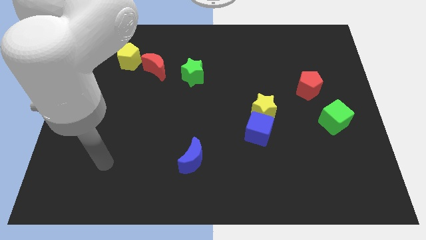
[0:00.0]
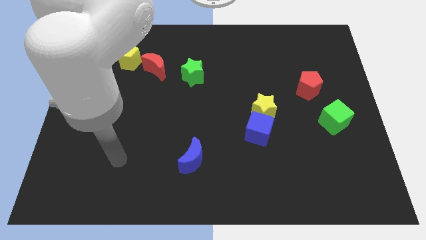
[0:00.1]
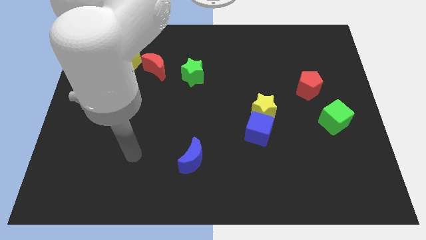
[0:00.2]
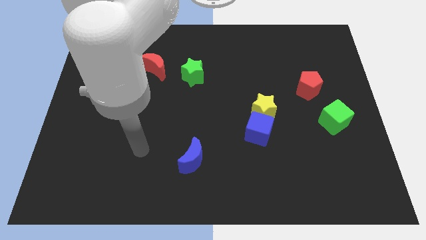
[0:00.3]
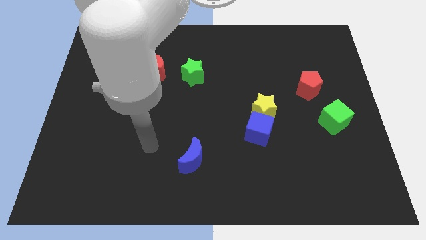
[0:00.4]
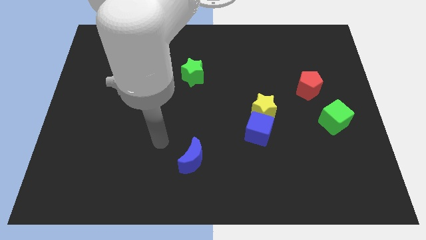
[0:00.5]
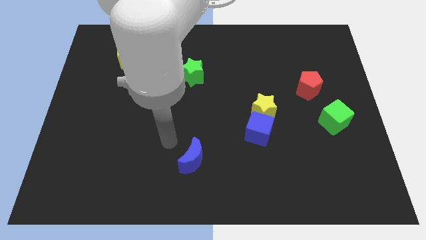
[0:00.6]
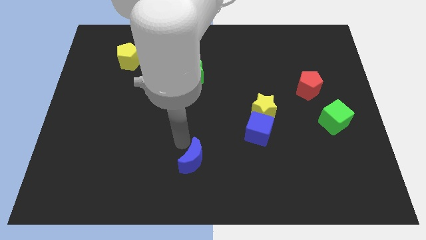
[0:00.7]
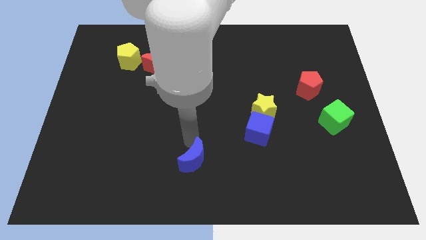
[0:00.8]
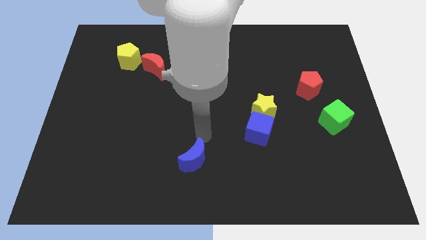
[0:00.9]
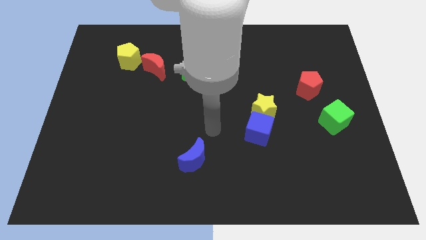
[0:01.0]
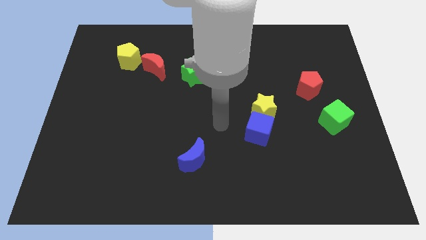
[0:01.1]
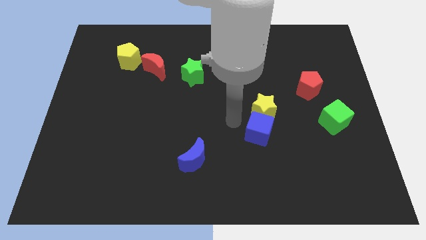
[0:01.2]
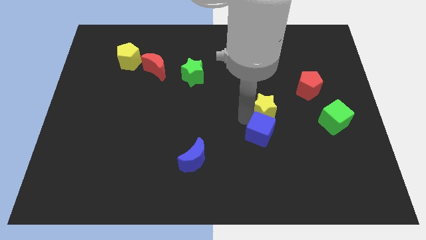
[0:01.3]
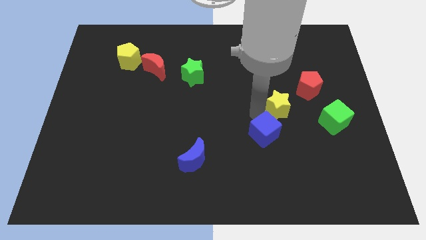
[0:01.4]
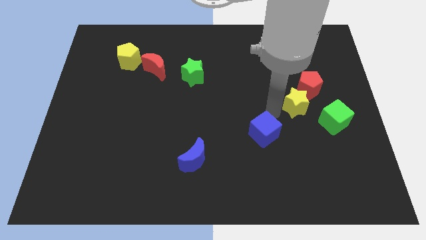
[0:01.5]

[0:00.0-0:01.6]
separate the blue cube from the yellow star

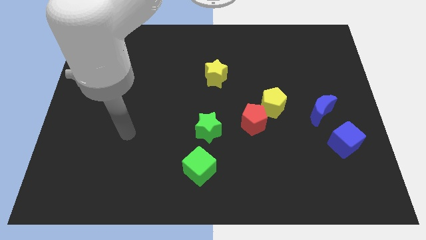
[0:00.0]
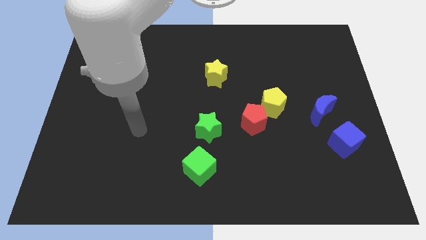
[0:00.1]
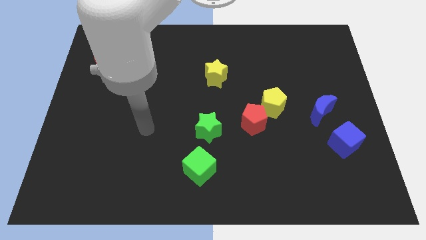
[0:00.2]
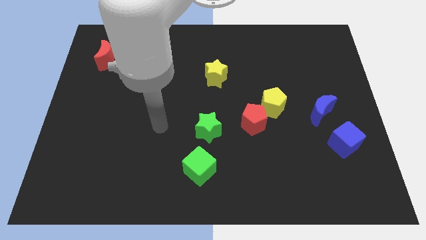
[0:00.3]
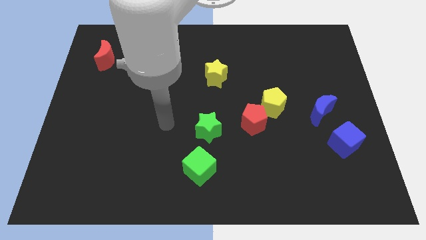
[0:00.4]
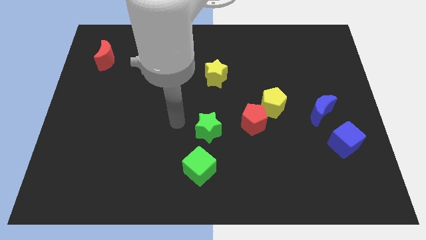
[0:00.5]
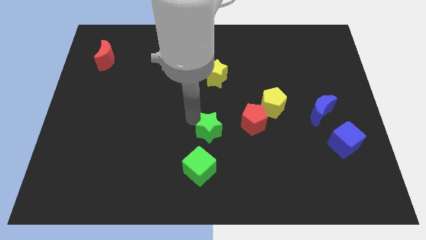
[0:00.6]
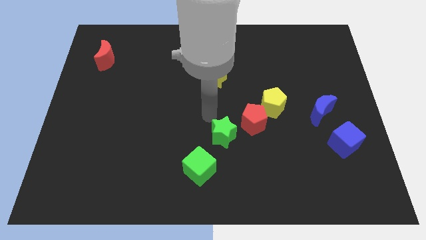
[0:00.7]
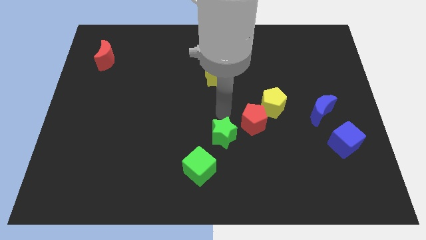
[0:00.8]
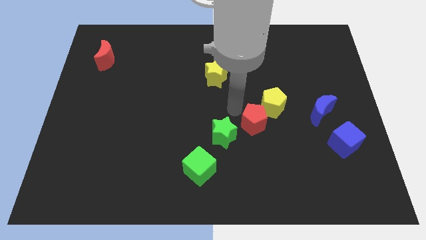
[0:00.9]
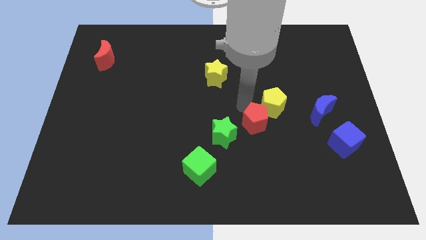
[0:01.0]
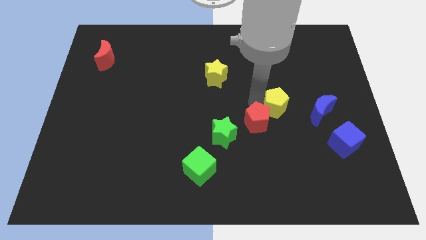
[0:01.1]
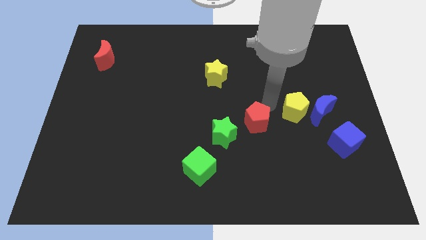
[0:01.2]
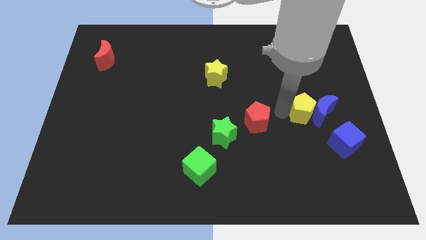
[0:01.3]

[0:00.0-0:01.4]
move the red pentagon away from the yellow pentagon

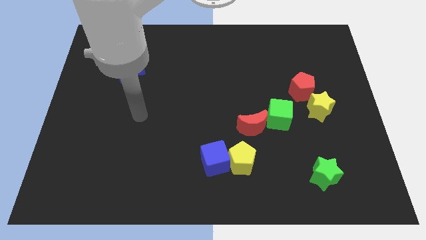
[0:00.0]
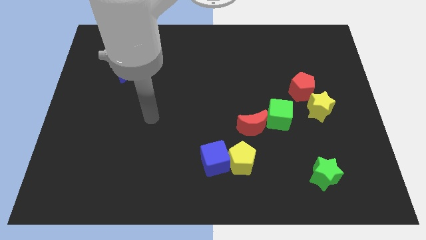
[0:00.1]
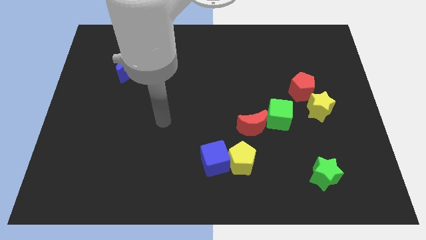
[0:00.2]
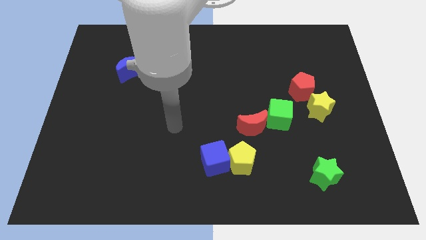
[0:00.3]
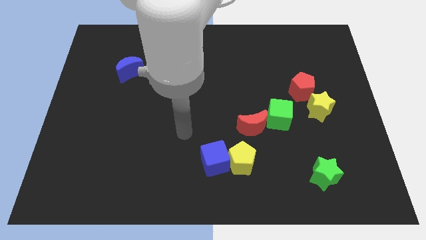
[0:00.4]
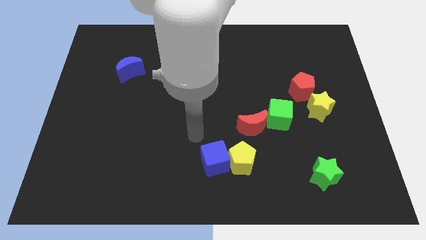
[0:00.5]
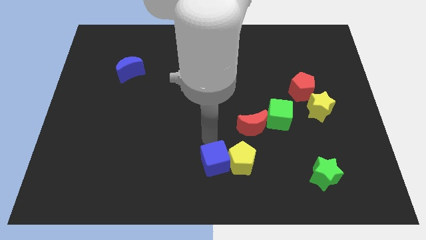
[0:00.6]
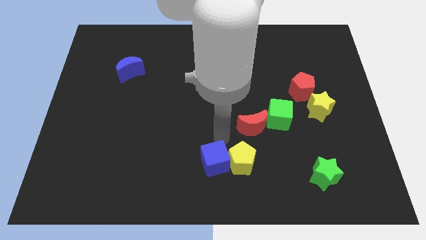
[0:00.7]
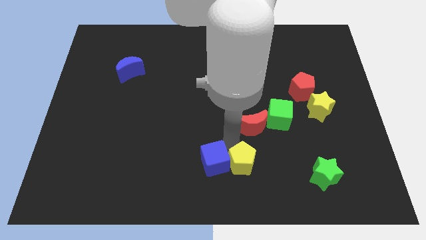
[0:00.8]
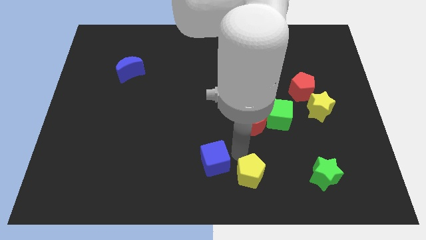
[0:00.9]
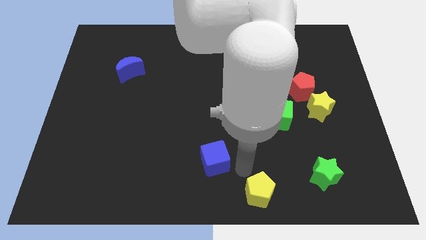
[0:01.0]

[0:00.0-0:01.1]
pull the blue cube apart from the yellow pentagon

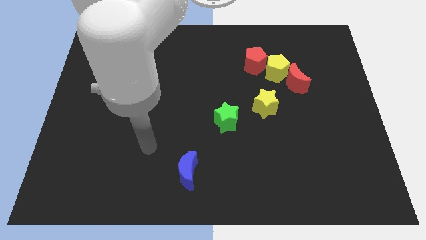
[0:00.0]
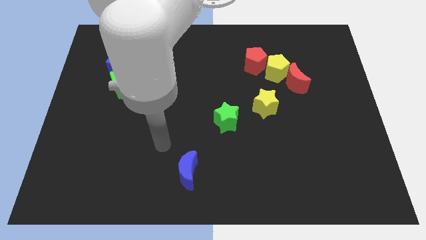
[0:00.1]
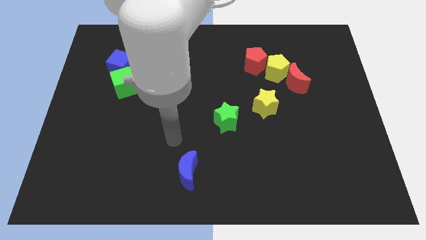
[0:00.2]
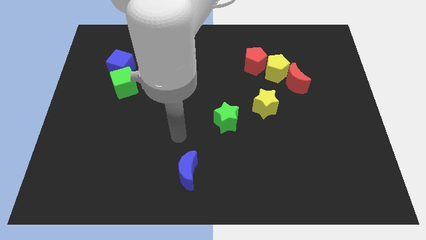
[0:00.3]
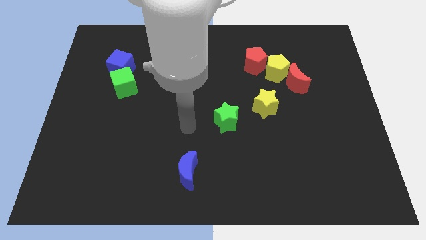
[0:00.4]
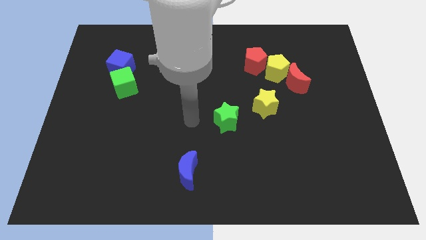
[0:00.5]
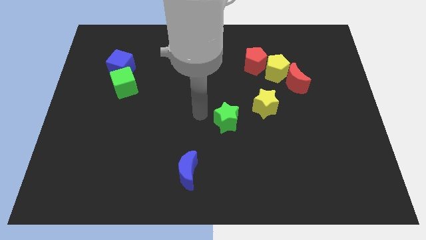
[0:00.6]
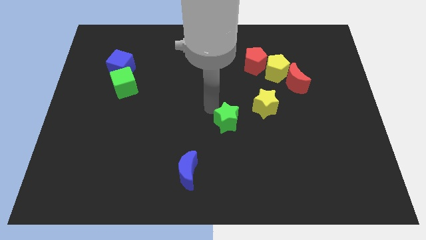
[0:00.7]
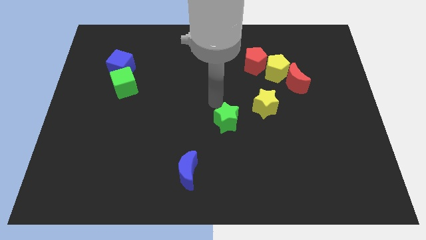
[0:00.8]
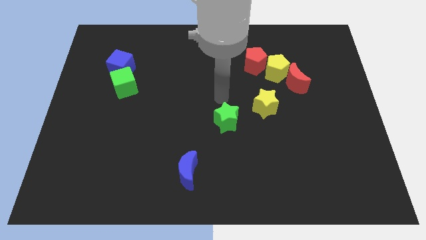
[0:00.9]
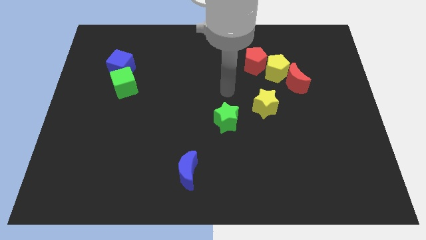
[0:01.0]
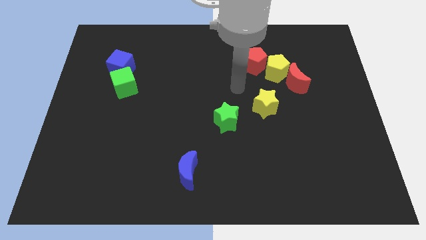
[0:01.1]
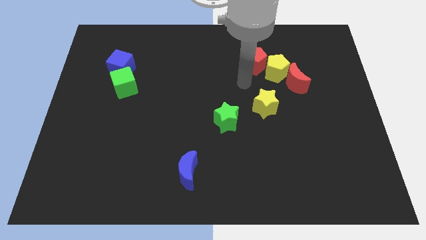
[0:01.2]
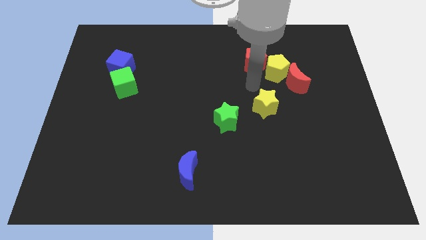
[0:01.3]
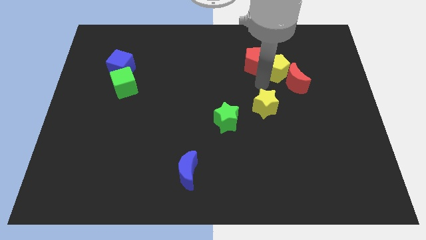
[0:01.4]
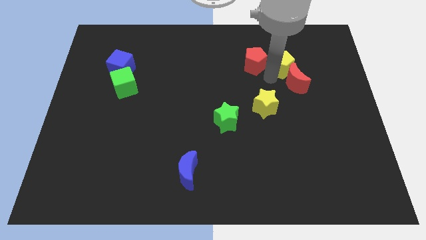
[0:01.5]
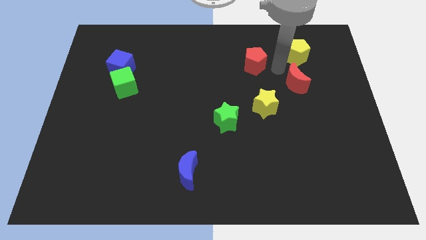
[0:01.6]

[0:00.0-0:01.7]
pull the red pentagon apart from the yellow pentagon

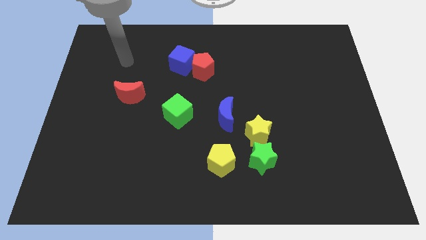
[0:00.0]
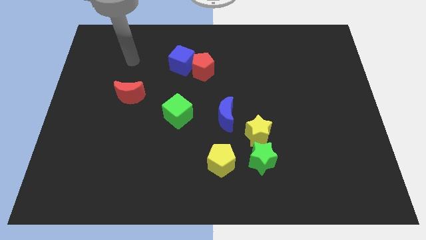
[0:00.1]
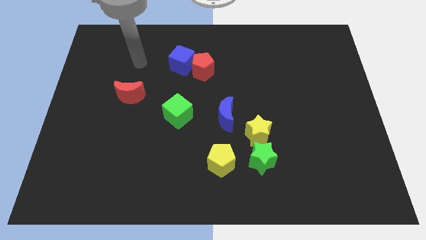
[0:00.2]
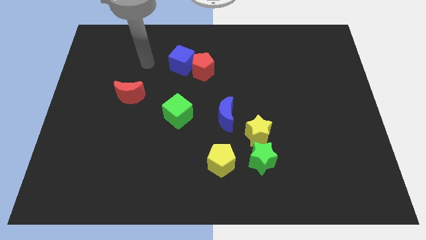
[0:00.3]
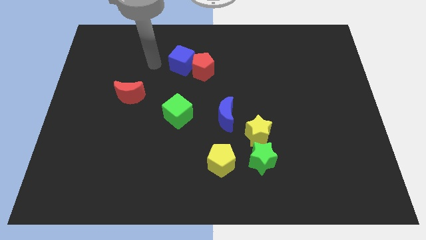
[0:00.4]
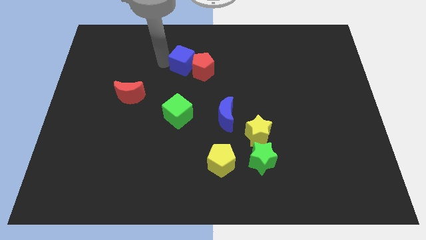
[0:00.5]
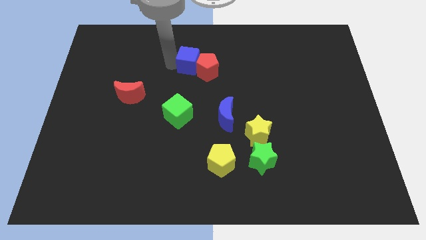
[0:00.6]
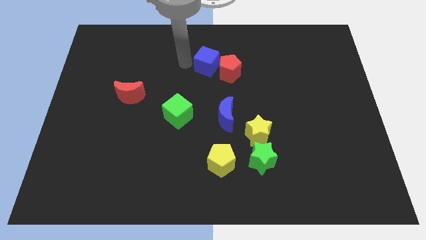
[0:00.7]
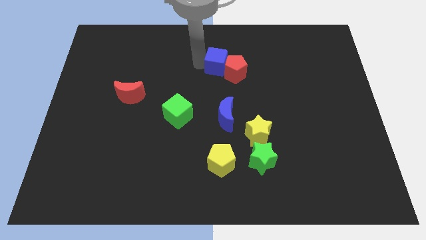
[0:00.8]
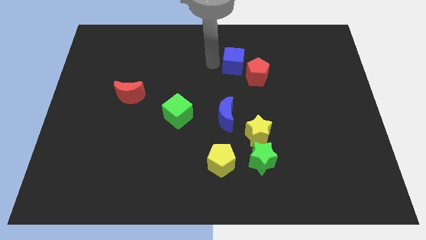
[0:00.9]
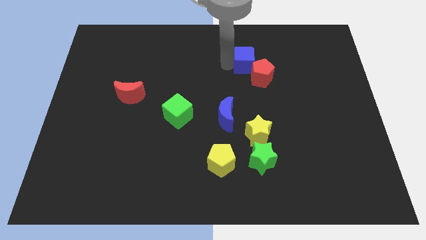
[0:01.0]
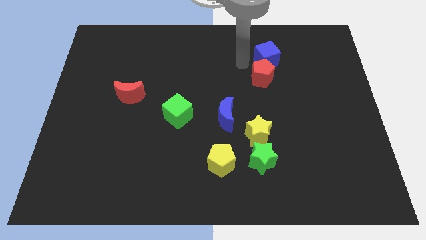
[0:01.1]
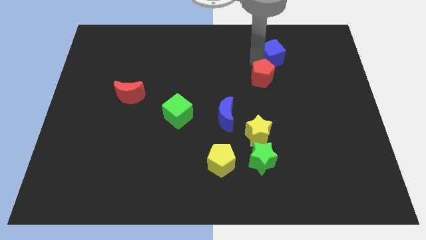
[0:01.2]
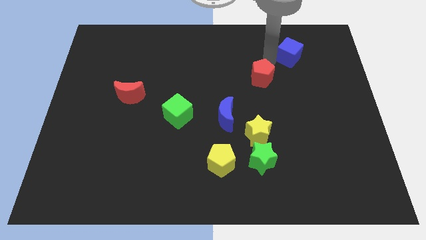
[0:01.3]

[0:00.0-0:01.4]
separate the red pentagon from the blue cube

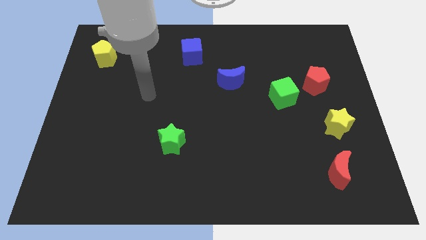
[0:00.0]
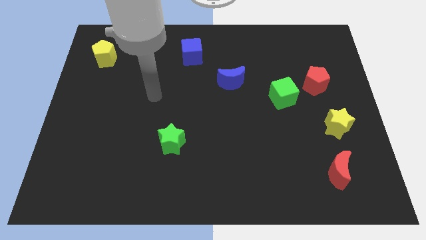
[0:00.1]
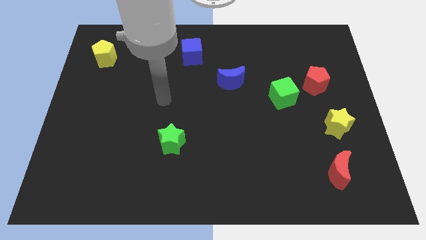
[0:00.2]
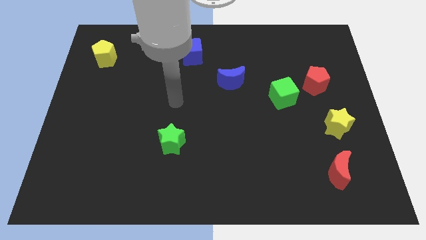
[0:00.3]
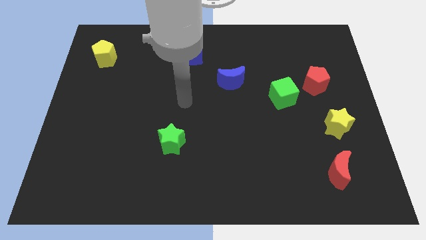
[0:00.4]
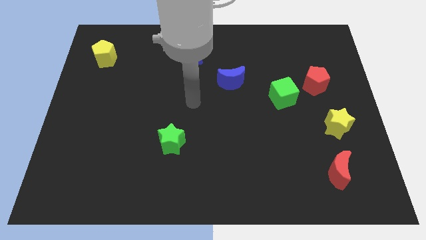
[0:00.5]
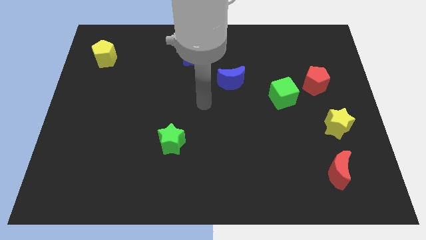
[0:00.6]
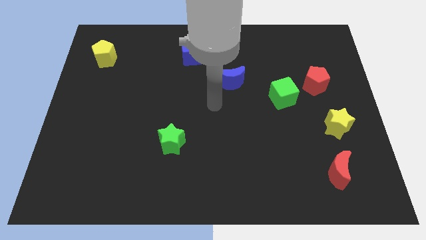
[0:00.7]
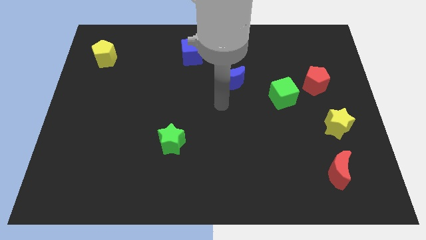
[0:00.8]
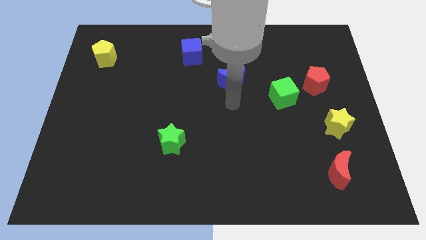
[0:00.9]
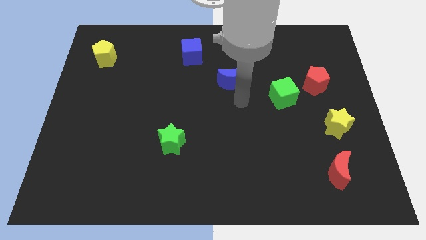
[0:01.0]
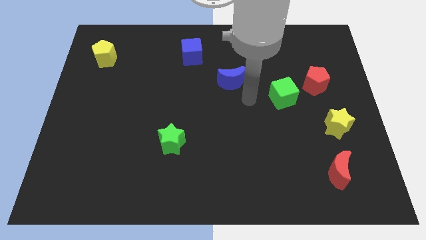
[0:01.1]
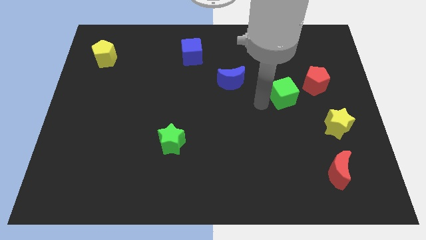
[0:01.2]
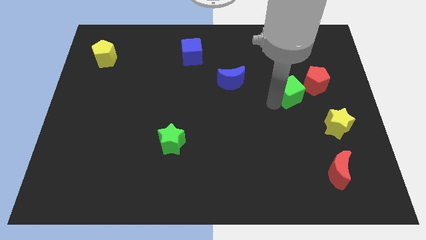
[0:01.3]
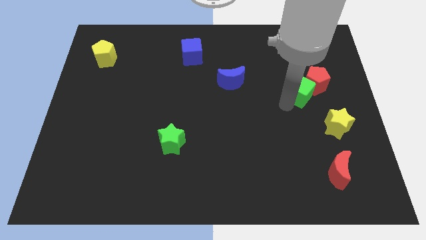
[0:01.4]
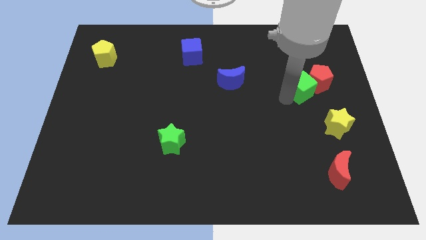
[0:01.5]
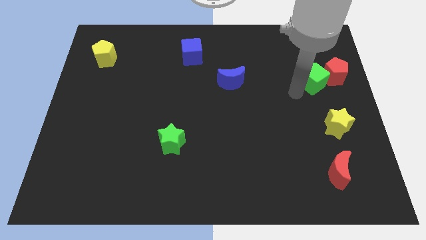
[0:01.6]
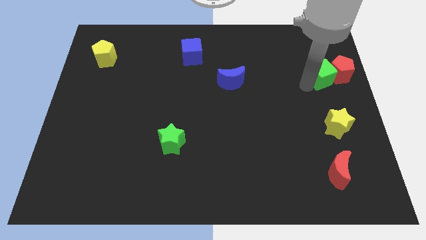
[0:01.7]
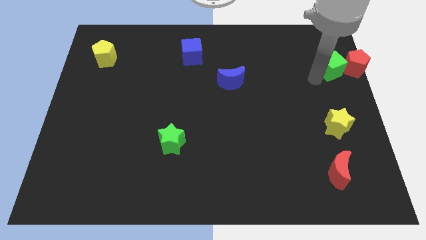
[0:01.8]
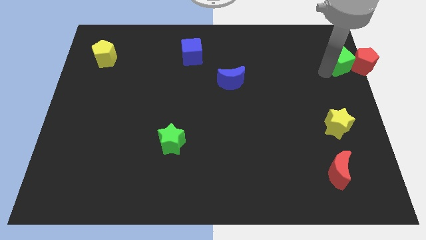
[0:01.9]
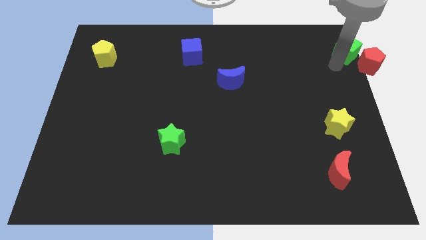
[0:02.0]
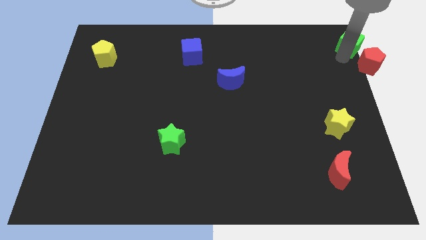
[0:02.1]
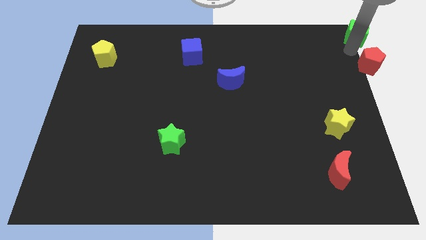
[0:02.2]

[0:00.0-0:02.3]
separate the red pentagon from the green cube
